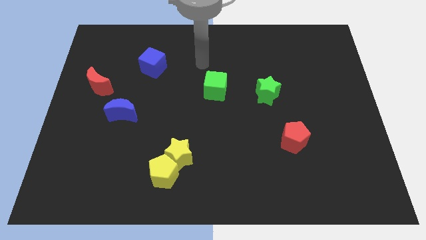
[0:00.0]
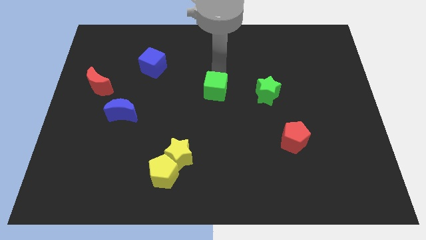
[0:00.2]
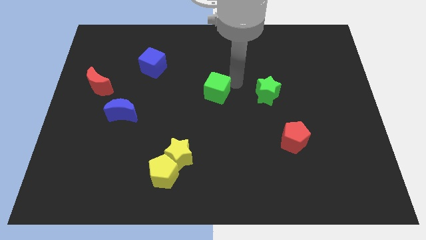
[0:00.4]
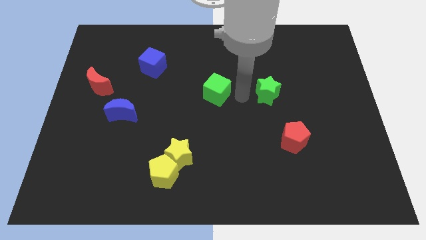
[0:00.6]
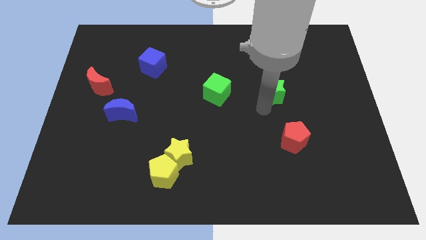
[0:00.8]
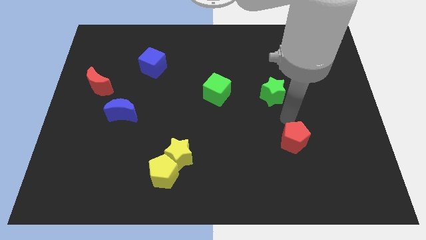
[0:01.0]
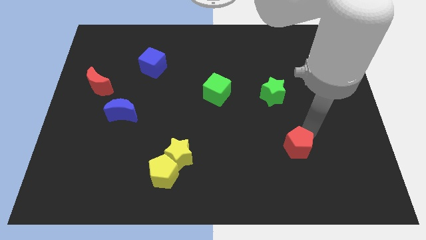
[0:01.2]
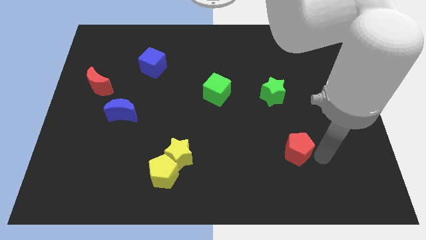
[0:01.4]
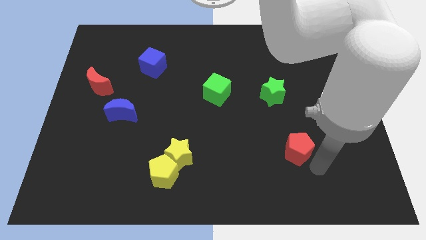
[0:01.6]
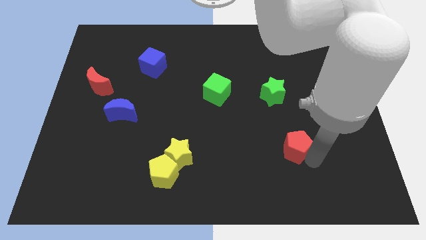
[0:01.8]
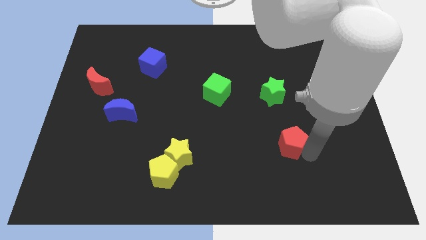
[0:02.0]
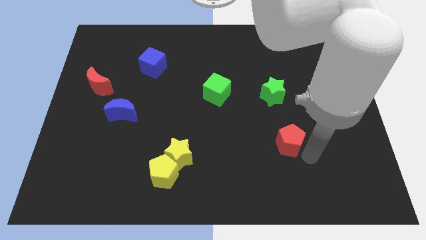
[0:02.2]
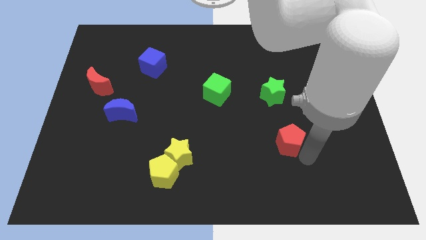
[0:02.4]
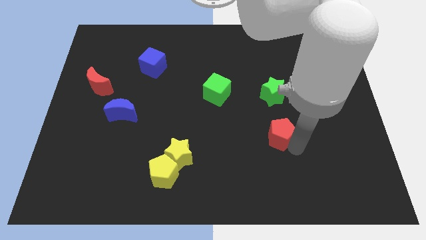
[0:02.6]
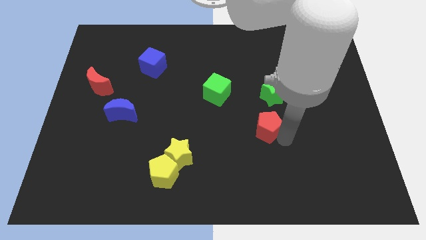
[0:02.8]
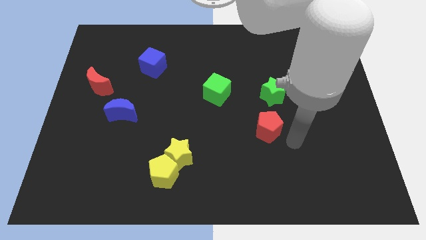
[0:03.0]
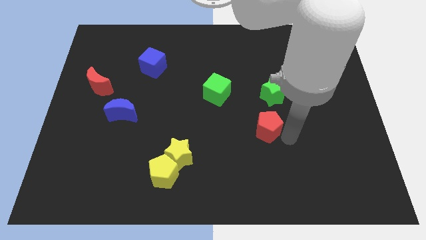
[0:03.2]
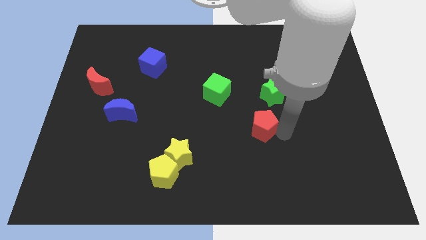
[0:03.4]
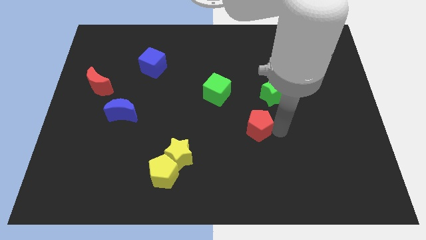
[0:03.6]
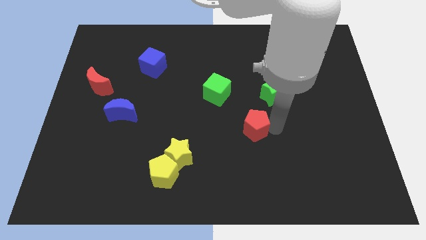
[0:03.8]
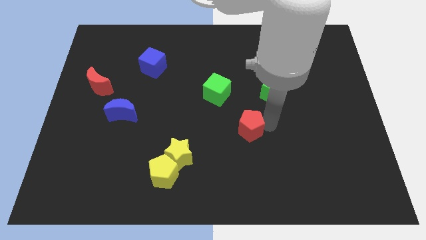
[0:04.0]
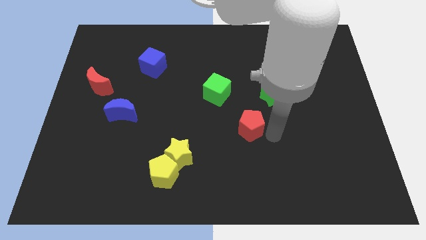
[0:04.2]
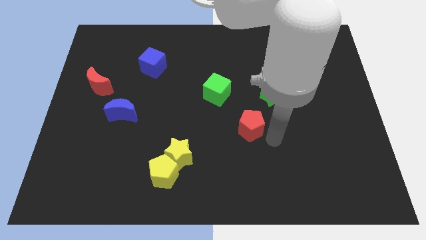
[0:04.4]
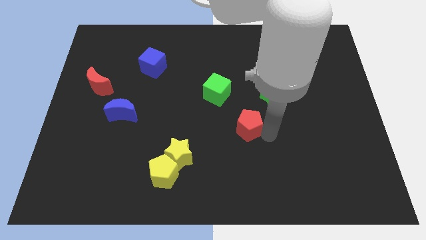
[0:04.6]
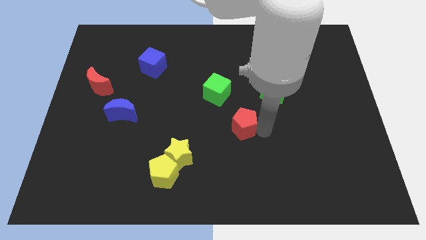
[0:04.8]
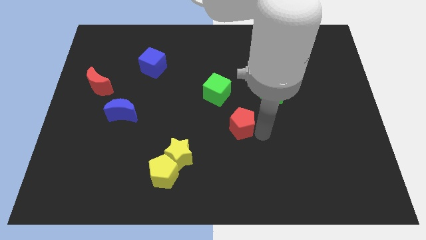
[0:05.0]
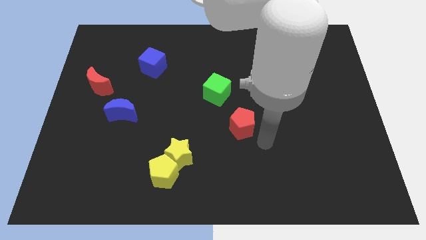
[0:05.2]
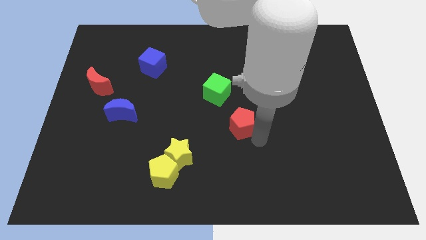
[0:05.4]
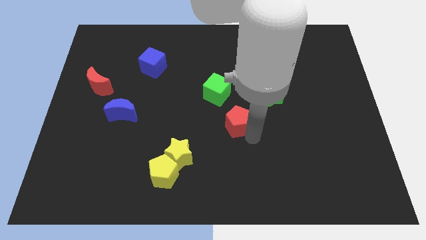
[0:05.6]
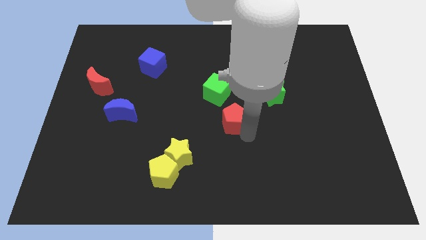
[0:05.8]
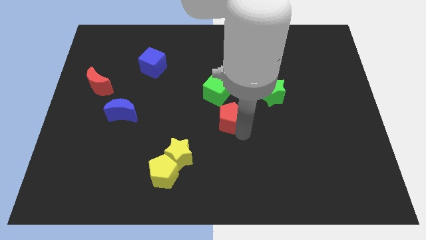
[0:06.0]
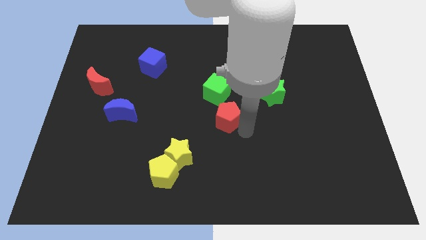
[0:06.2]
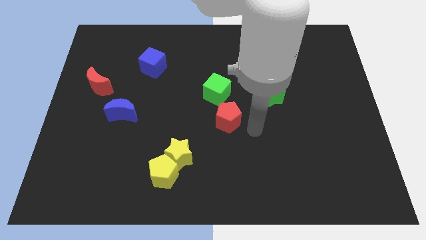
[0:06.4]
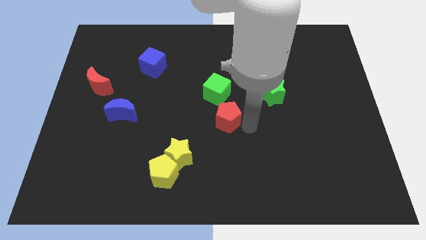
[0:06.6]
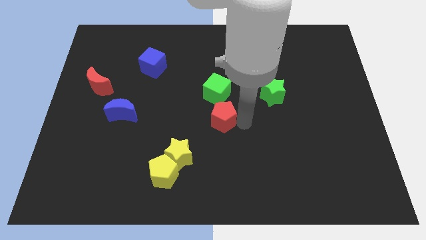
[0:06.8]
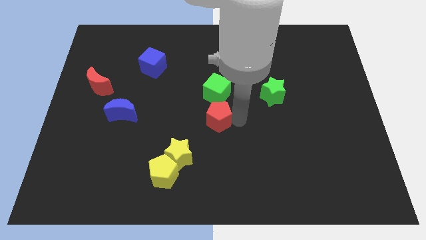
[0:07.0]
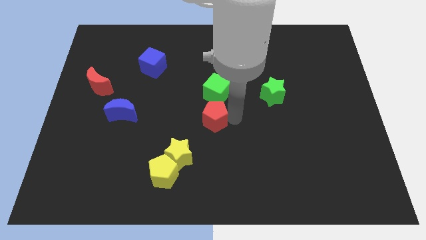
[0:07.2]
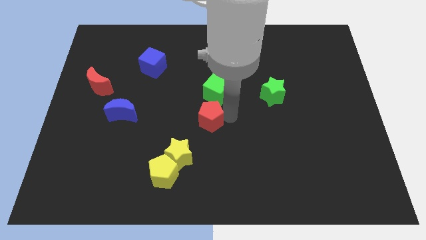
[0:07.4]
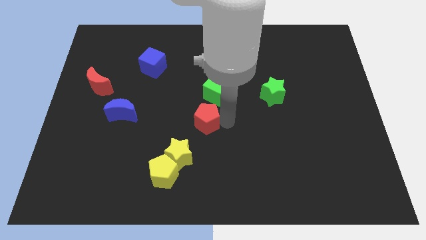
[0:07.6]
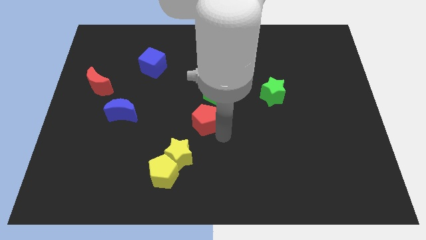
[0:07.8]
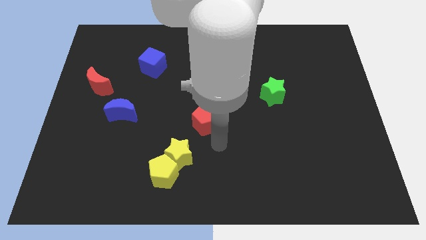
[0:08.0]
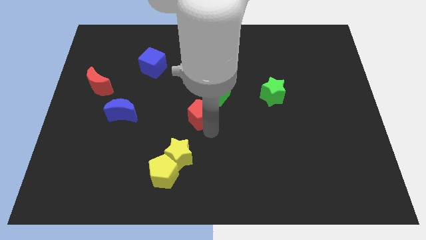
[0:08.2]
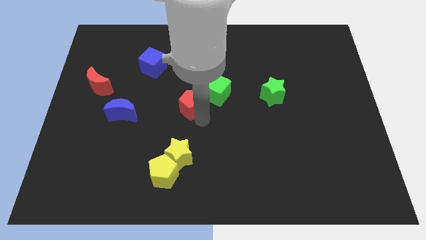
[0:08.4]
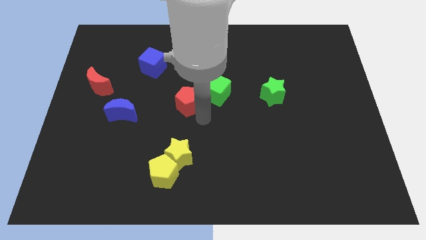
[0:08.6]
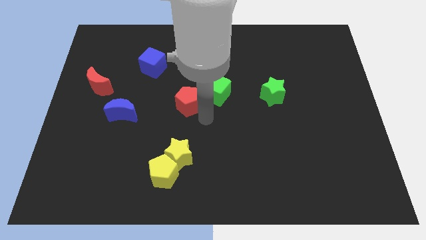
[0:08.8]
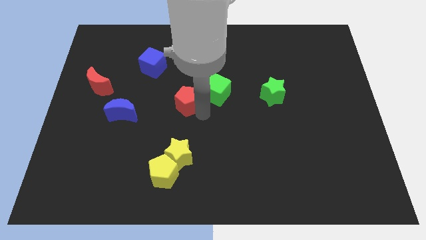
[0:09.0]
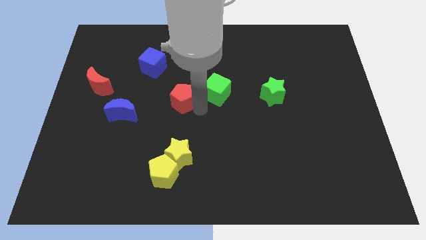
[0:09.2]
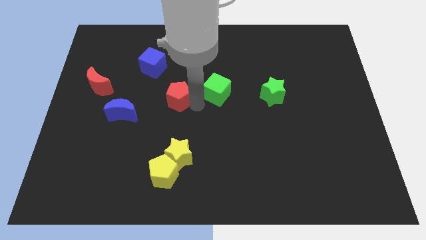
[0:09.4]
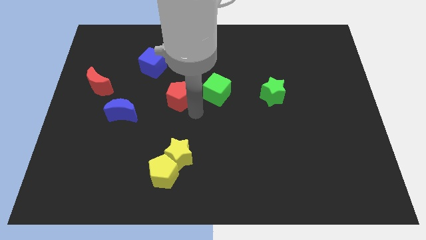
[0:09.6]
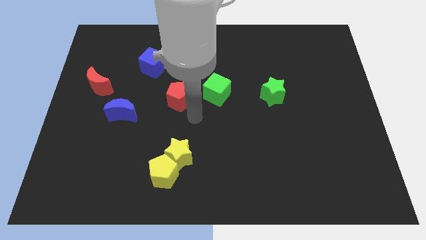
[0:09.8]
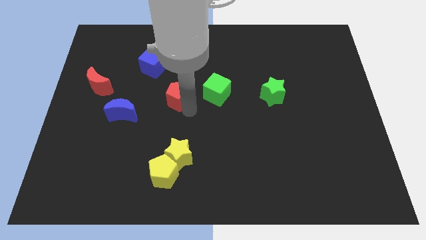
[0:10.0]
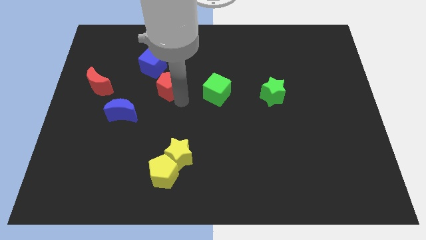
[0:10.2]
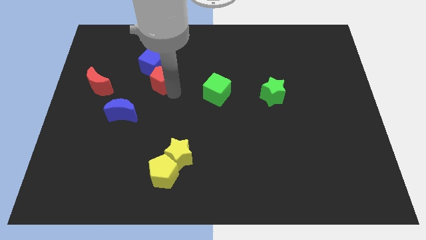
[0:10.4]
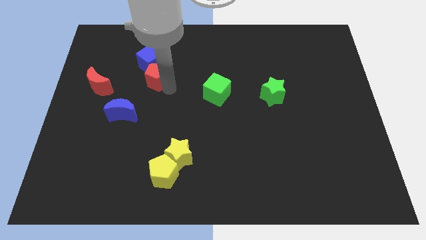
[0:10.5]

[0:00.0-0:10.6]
push the red pentagon to the blue cube

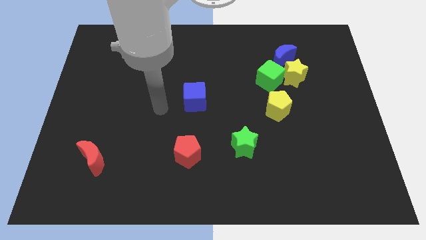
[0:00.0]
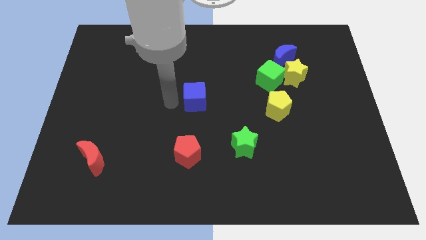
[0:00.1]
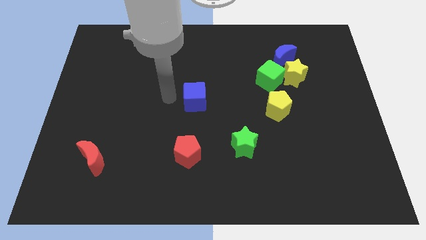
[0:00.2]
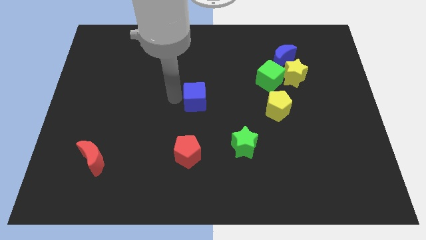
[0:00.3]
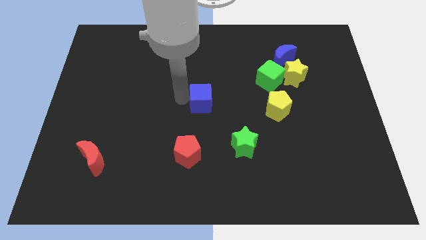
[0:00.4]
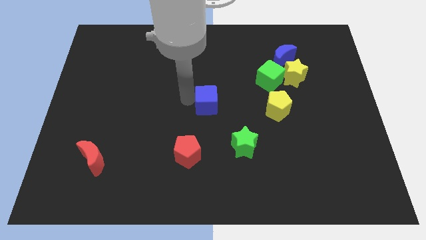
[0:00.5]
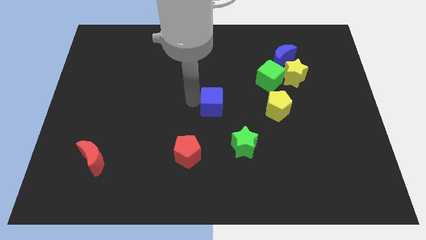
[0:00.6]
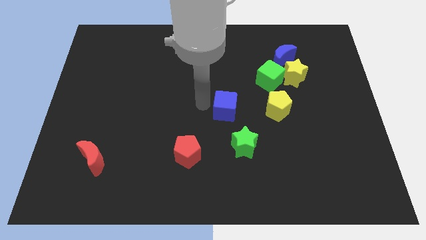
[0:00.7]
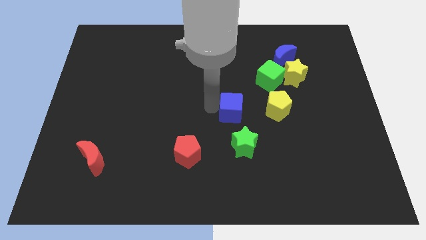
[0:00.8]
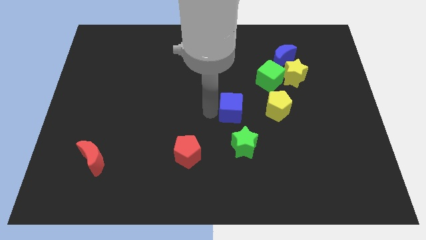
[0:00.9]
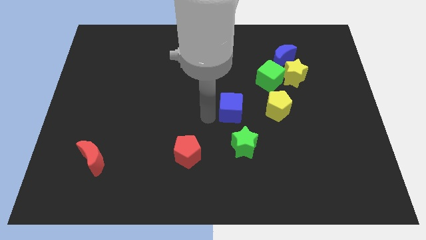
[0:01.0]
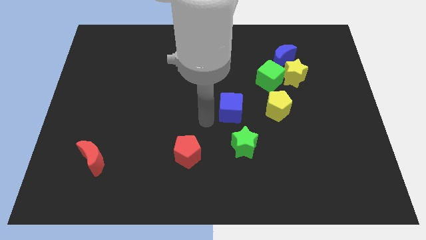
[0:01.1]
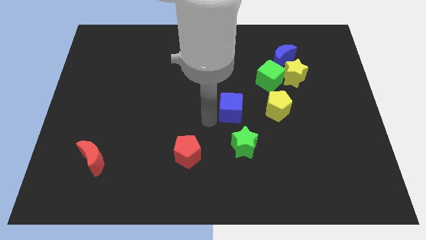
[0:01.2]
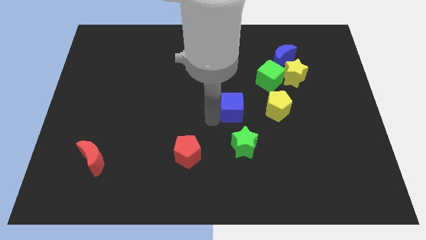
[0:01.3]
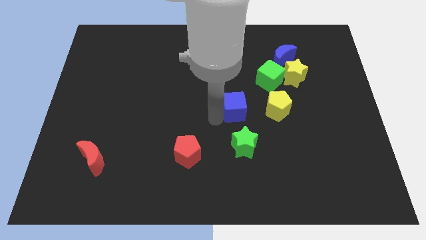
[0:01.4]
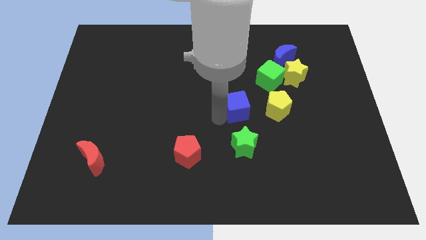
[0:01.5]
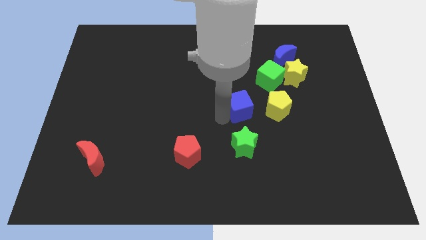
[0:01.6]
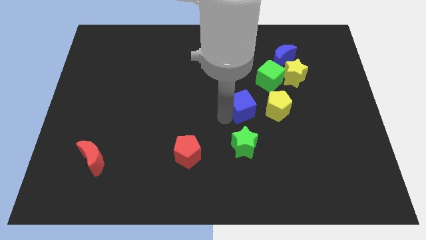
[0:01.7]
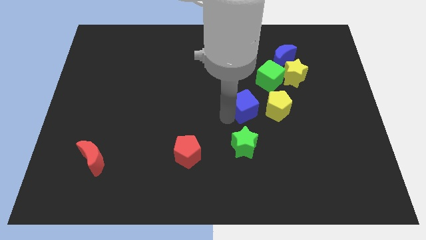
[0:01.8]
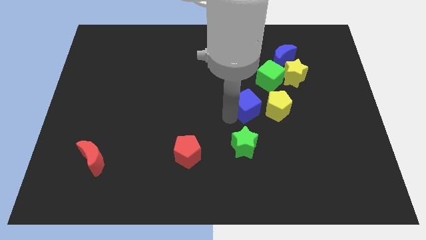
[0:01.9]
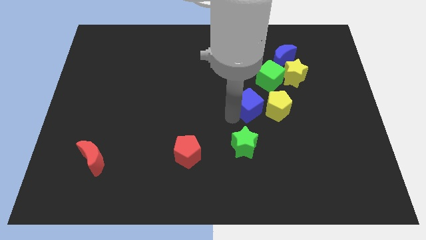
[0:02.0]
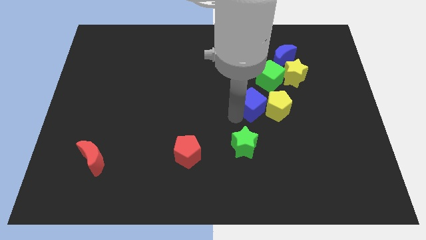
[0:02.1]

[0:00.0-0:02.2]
push the blue cube next to the yellow pentagon
